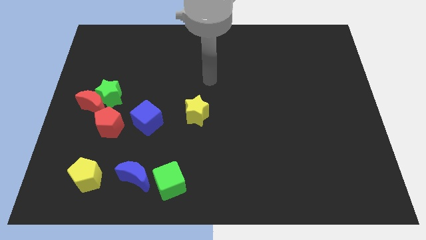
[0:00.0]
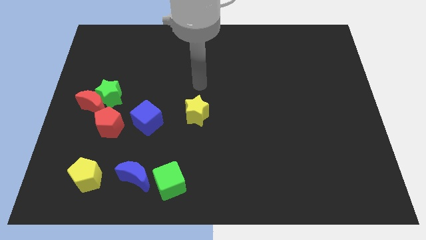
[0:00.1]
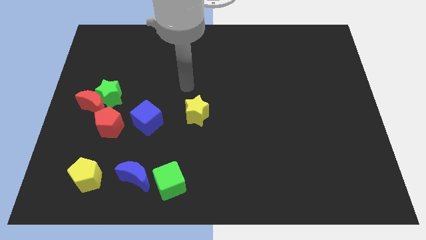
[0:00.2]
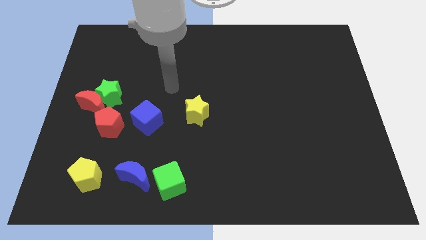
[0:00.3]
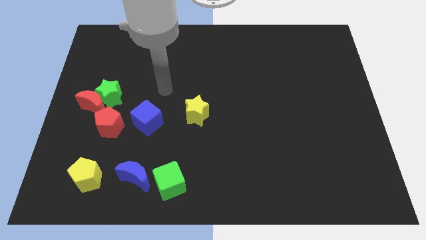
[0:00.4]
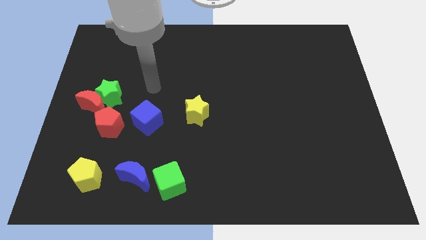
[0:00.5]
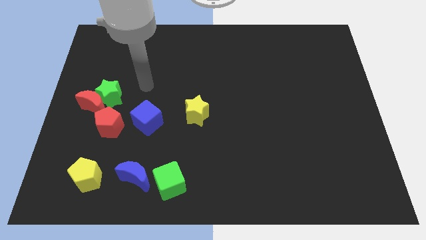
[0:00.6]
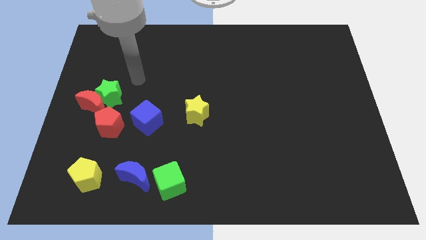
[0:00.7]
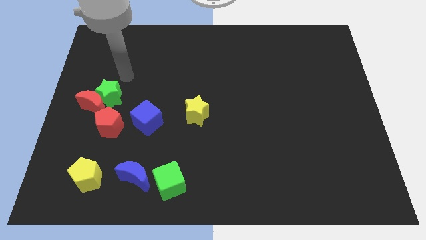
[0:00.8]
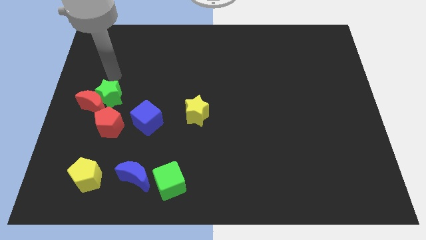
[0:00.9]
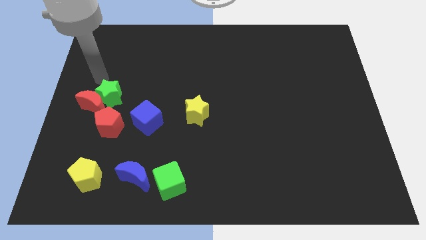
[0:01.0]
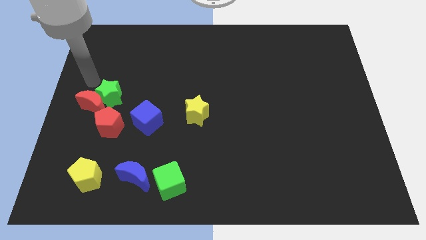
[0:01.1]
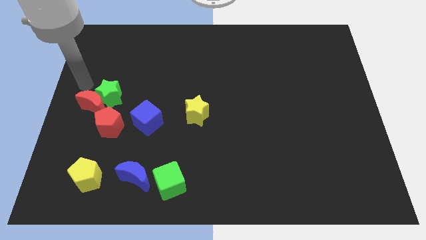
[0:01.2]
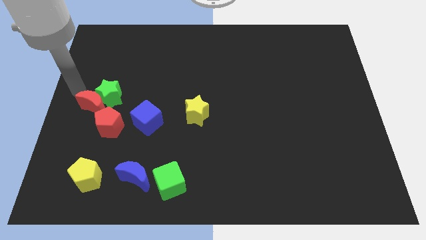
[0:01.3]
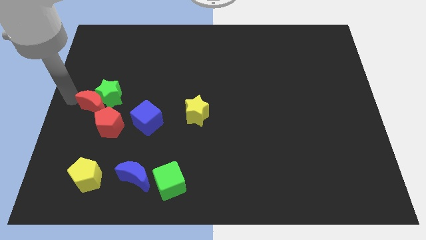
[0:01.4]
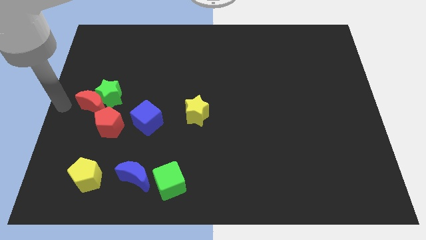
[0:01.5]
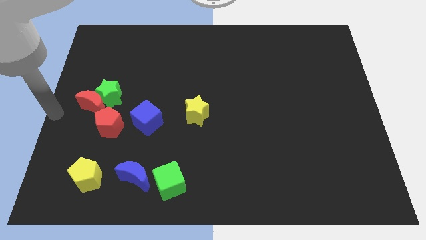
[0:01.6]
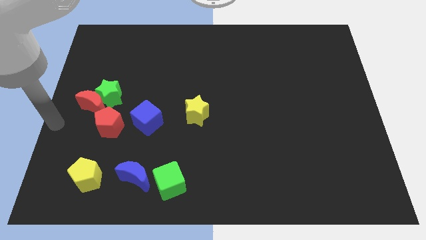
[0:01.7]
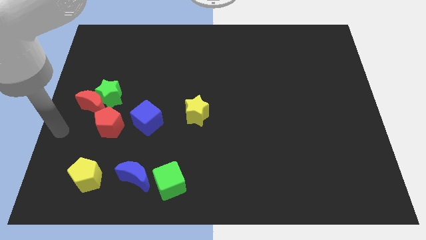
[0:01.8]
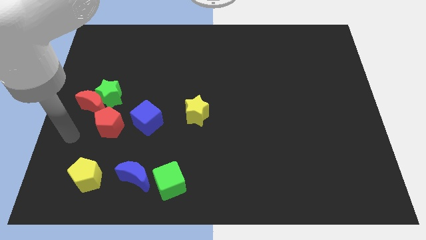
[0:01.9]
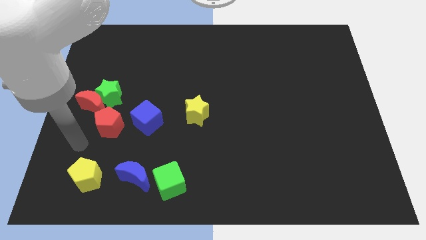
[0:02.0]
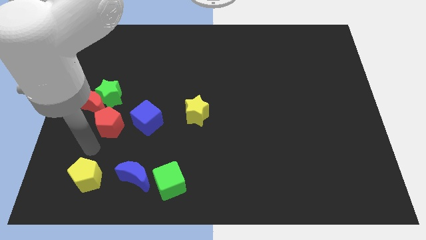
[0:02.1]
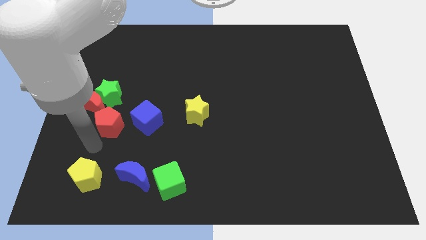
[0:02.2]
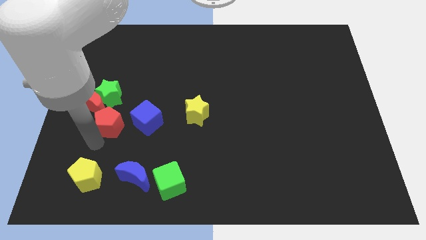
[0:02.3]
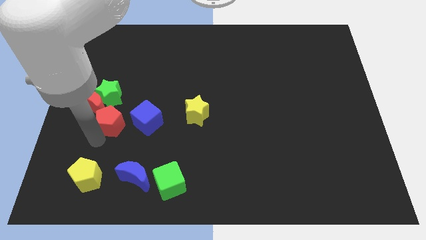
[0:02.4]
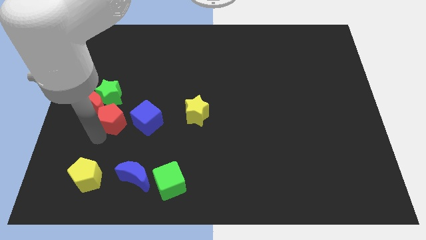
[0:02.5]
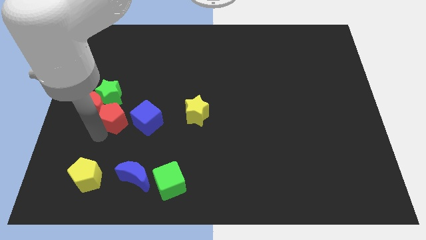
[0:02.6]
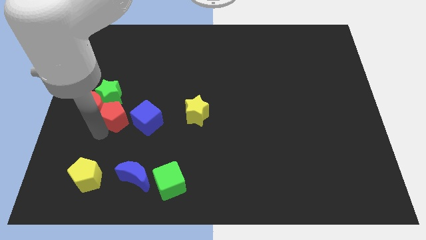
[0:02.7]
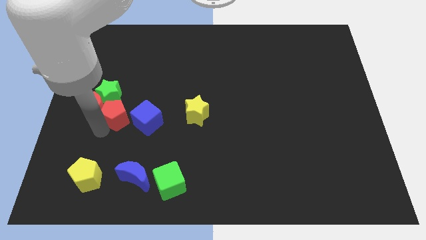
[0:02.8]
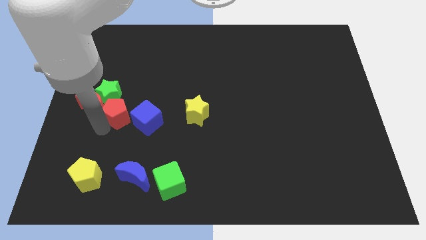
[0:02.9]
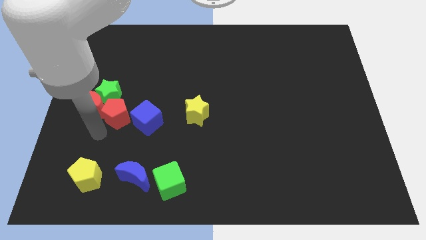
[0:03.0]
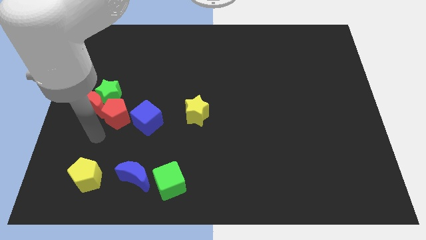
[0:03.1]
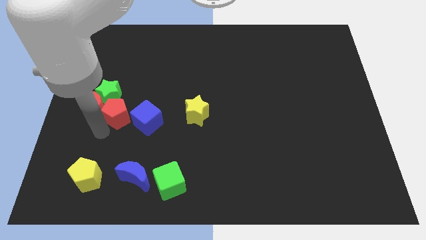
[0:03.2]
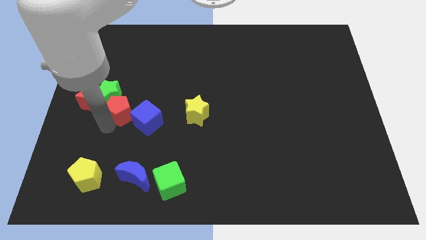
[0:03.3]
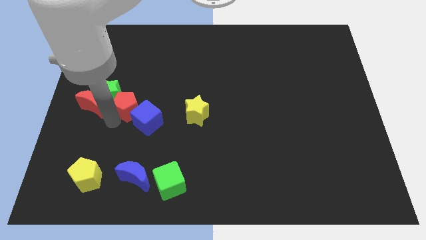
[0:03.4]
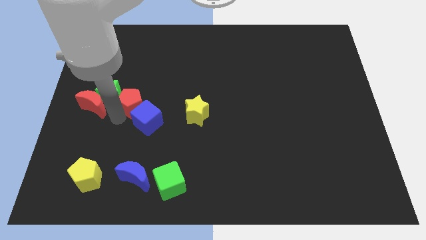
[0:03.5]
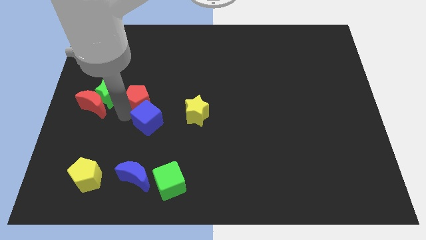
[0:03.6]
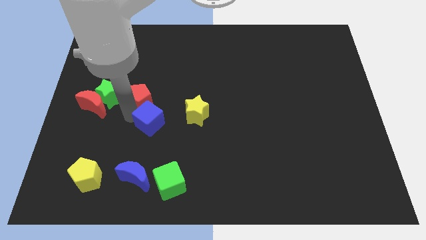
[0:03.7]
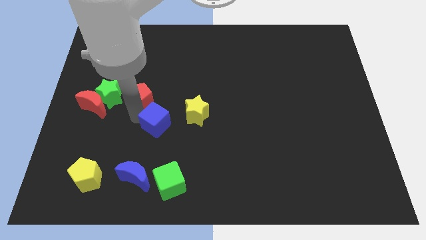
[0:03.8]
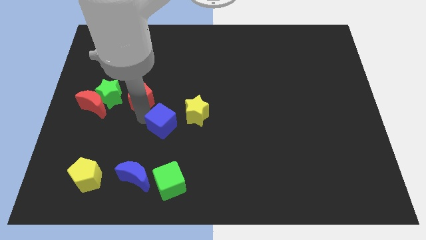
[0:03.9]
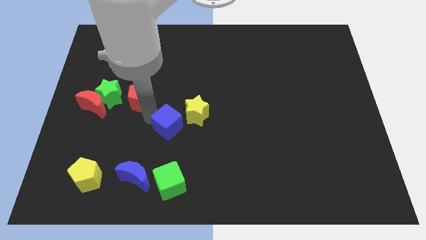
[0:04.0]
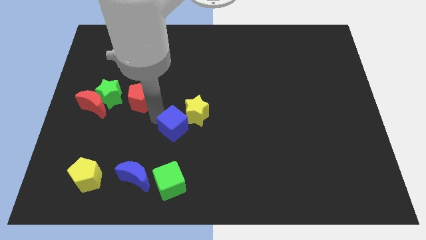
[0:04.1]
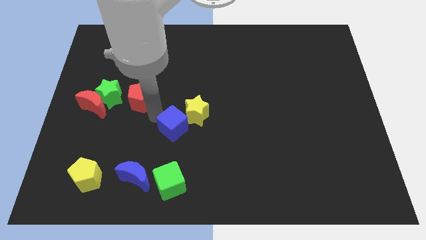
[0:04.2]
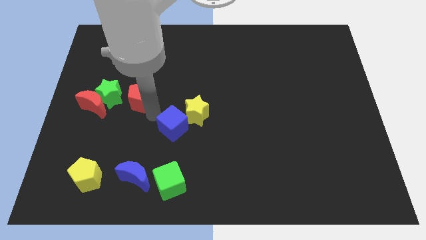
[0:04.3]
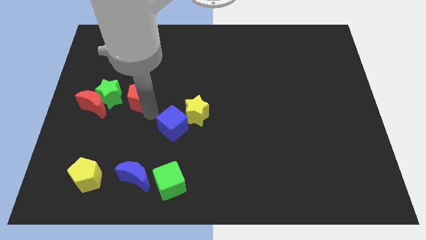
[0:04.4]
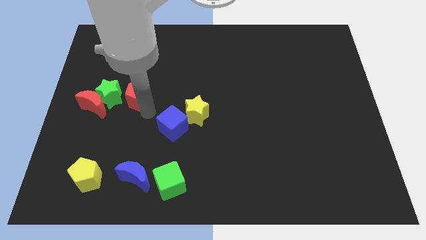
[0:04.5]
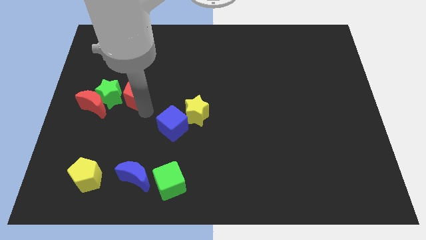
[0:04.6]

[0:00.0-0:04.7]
slightly slide the red pentagon upwards

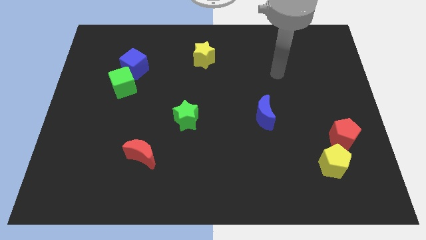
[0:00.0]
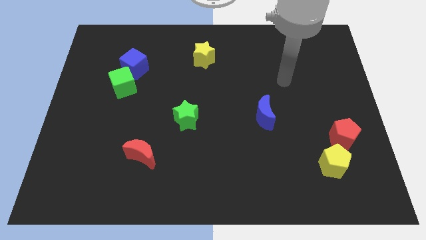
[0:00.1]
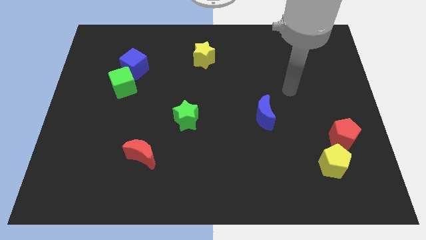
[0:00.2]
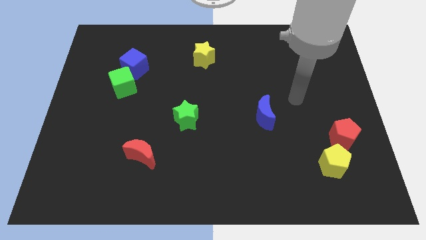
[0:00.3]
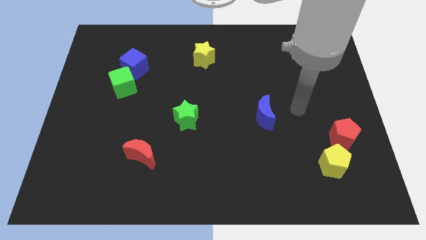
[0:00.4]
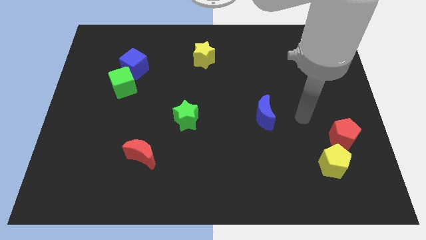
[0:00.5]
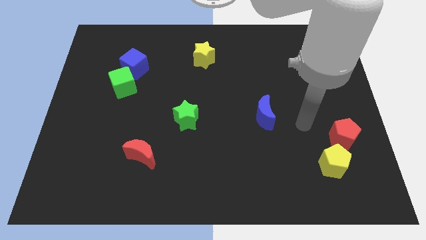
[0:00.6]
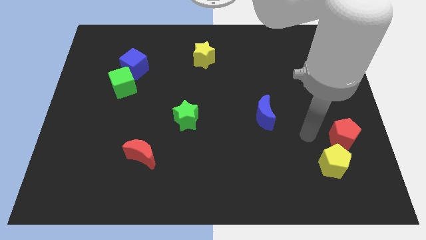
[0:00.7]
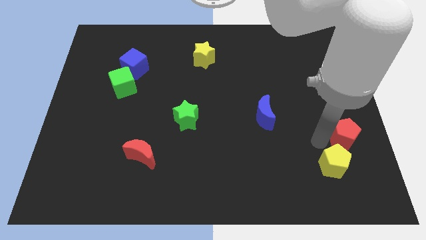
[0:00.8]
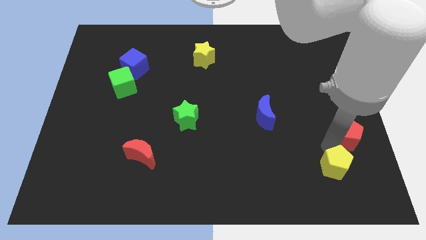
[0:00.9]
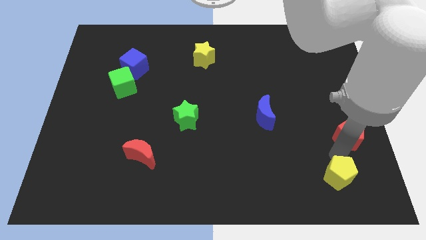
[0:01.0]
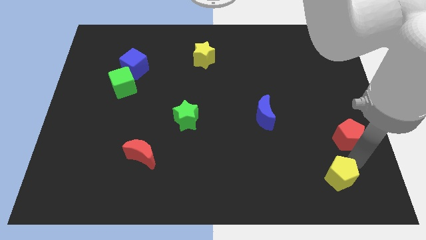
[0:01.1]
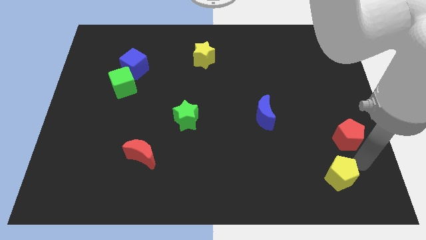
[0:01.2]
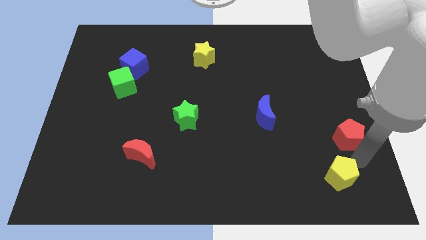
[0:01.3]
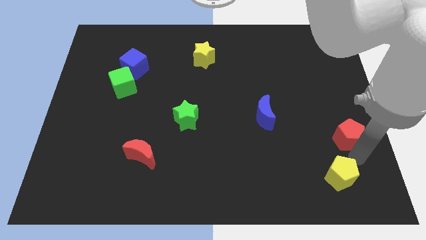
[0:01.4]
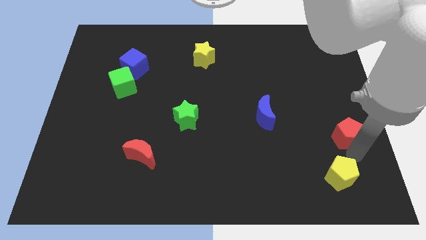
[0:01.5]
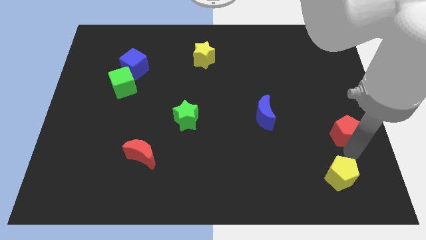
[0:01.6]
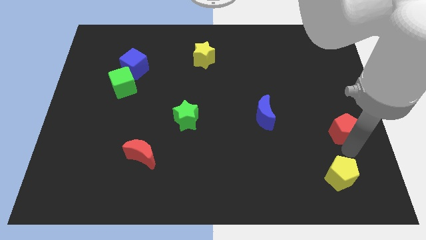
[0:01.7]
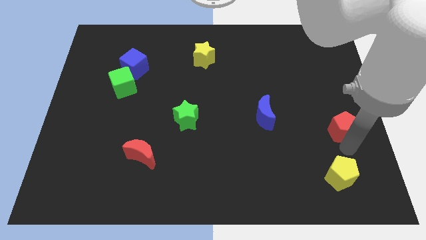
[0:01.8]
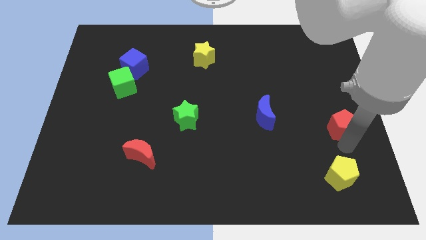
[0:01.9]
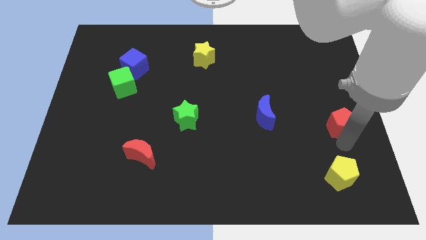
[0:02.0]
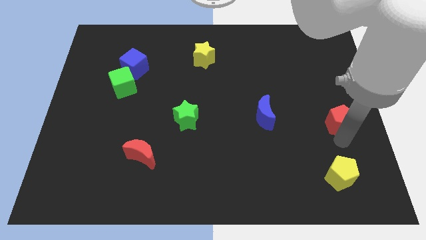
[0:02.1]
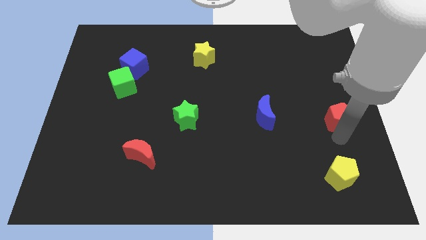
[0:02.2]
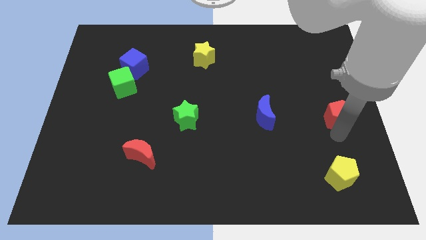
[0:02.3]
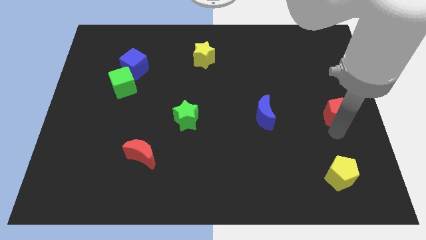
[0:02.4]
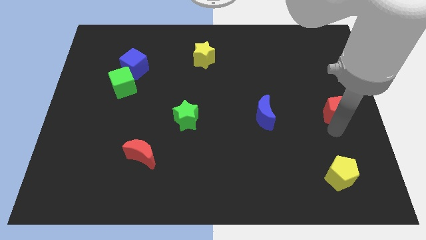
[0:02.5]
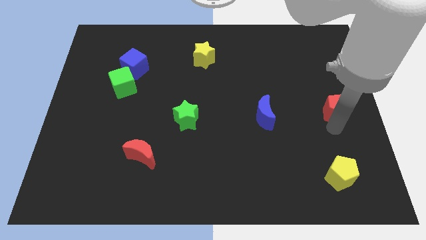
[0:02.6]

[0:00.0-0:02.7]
move the red pentagon a little bit upwards

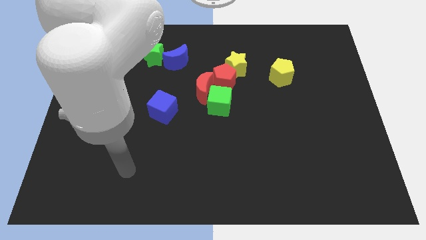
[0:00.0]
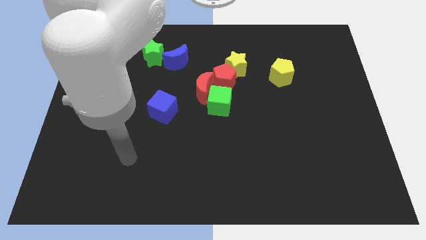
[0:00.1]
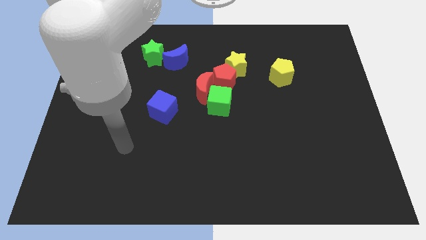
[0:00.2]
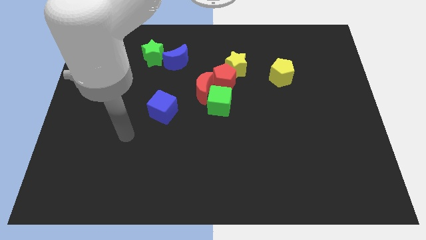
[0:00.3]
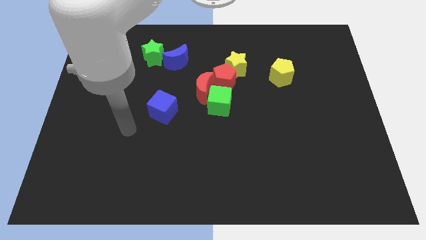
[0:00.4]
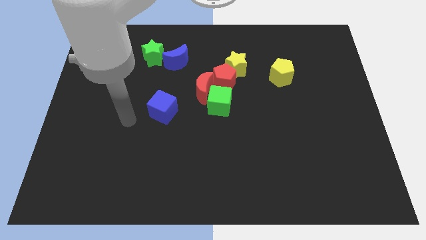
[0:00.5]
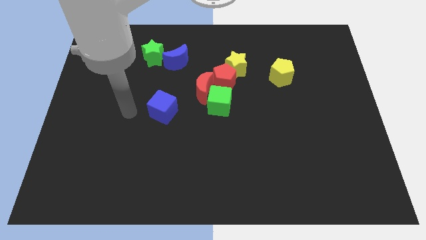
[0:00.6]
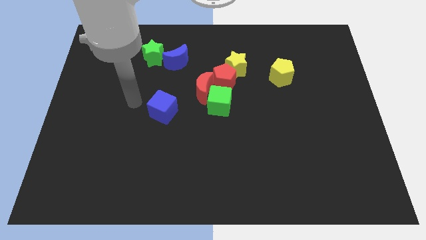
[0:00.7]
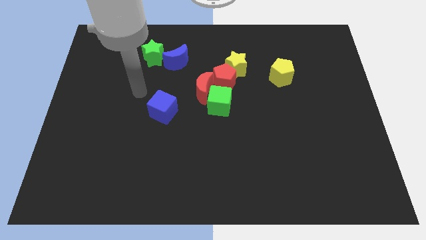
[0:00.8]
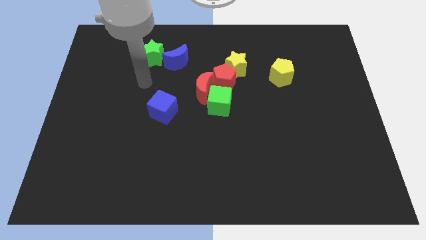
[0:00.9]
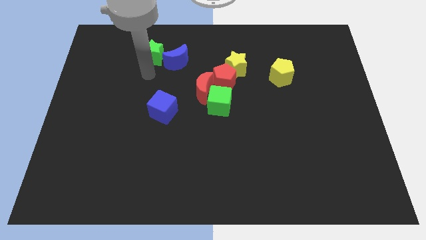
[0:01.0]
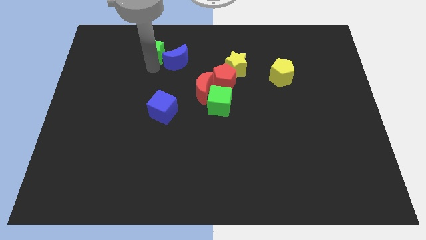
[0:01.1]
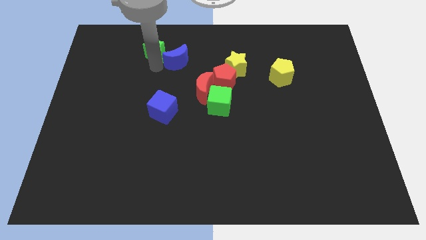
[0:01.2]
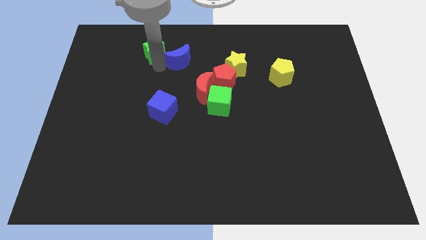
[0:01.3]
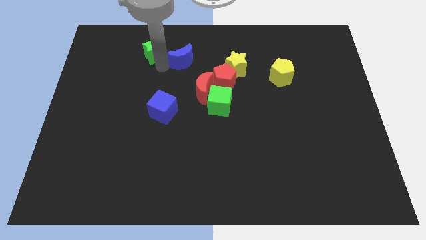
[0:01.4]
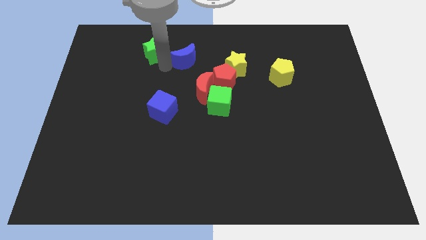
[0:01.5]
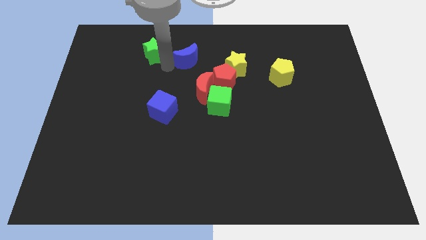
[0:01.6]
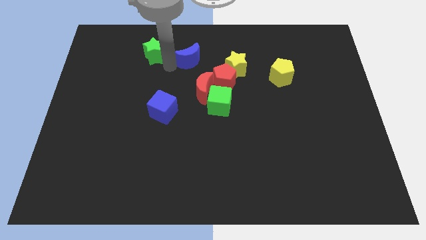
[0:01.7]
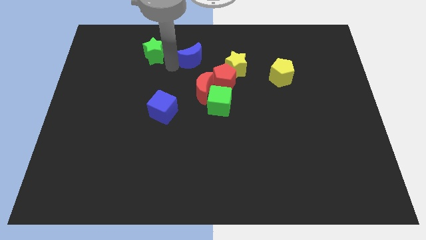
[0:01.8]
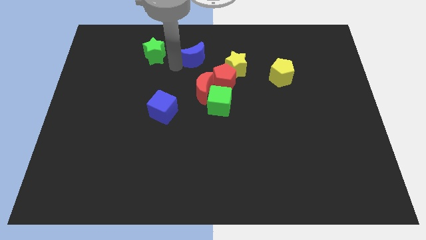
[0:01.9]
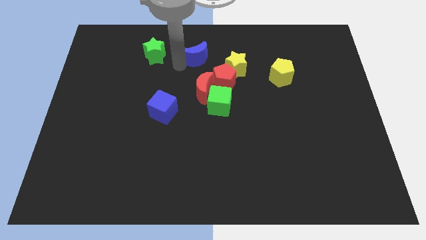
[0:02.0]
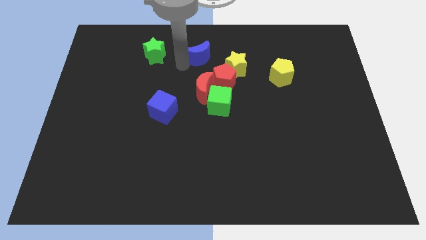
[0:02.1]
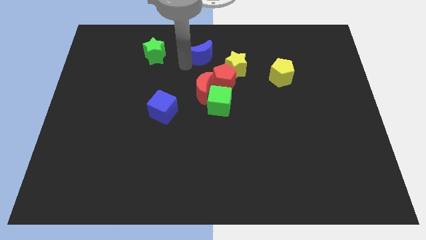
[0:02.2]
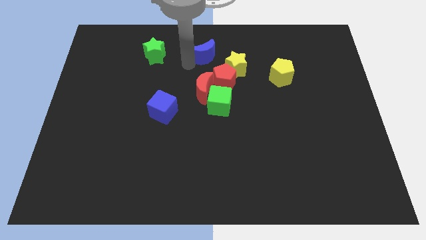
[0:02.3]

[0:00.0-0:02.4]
move the blue moon to the right a bit
